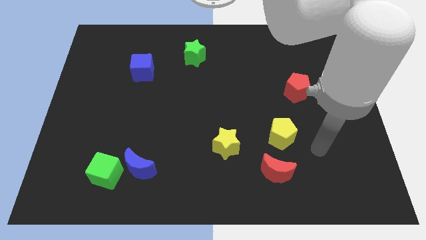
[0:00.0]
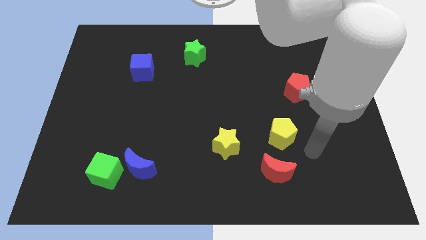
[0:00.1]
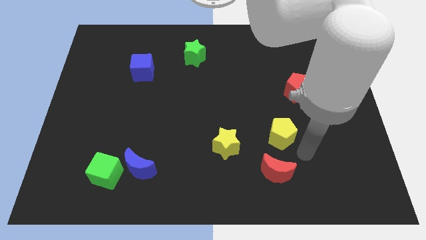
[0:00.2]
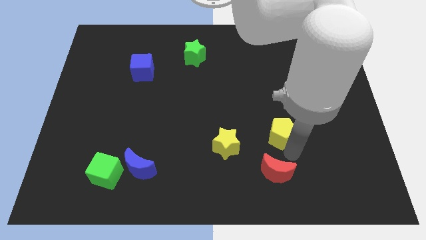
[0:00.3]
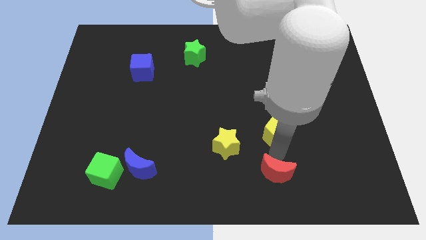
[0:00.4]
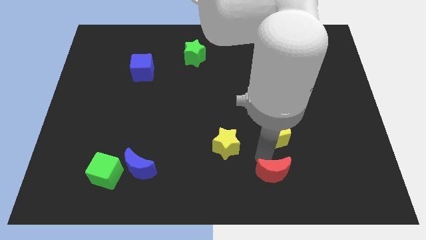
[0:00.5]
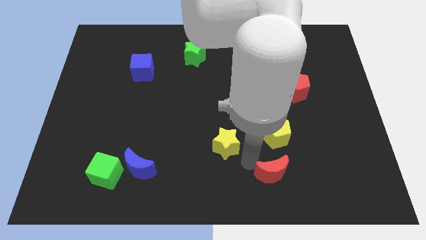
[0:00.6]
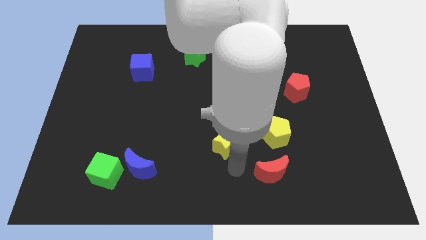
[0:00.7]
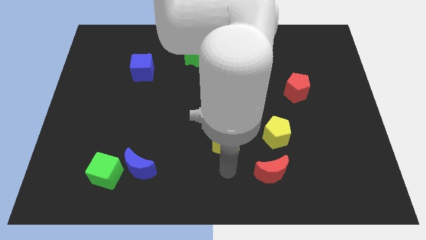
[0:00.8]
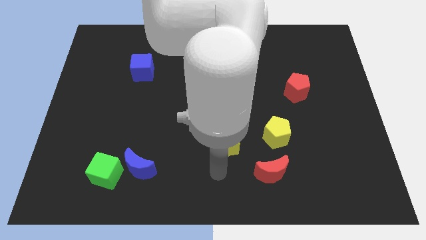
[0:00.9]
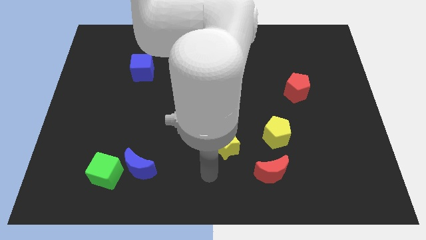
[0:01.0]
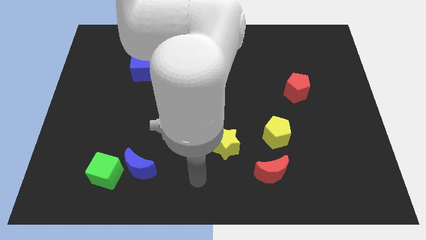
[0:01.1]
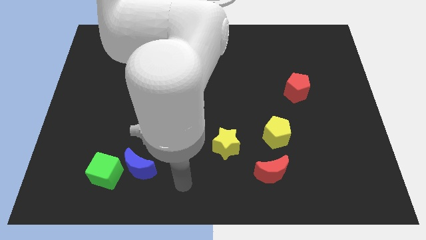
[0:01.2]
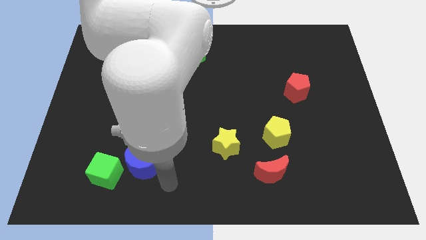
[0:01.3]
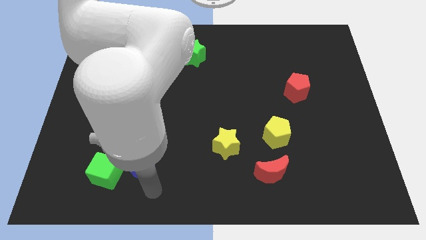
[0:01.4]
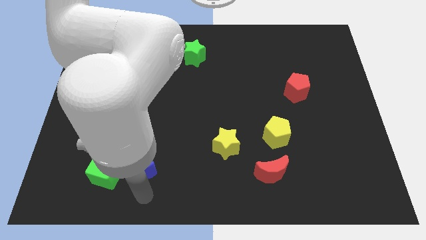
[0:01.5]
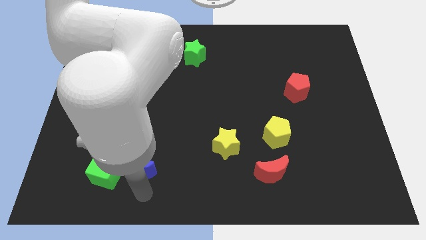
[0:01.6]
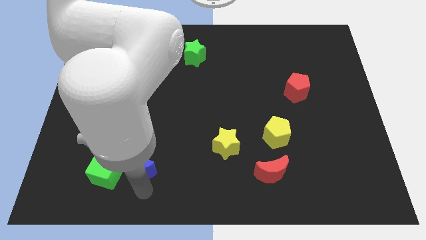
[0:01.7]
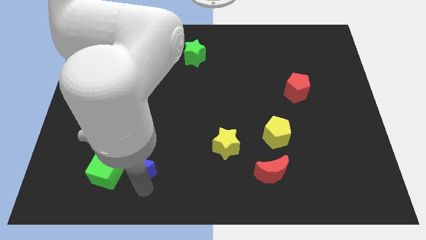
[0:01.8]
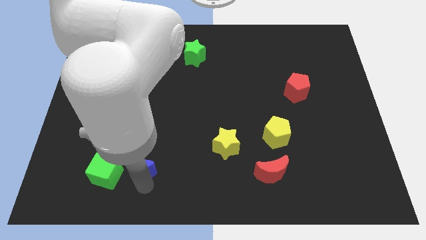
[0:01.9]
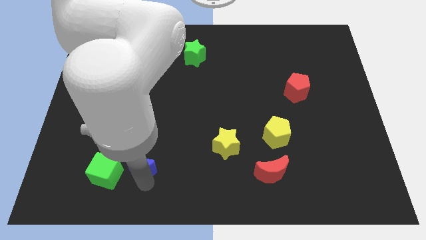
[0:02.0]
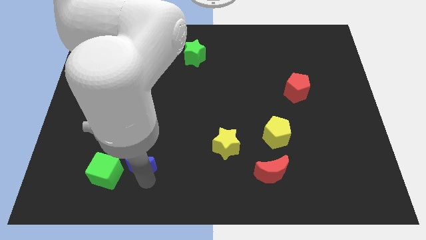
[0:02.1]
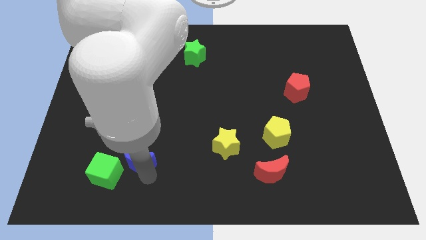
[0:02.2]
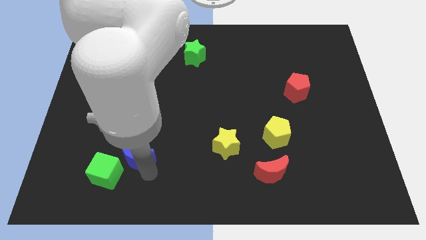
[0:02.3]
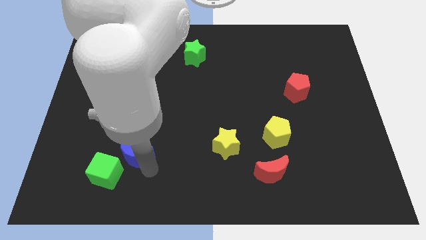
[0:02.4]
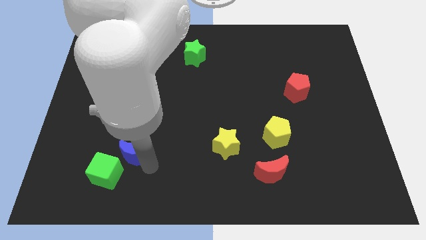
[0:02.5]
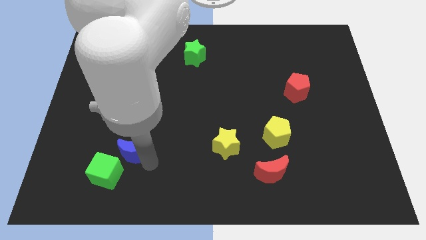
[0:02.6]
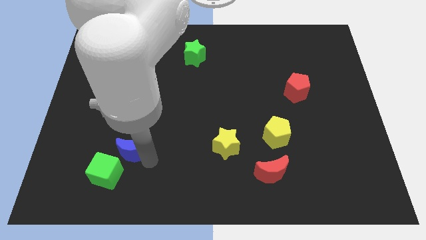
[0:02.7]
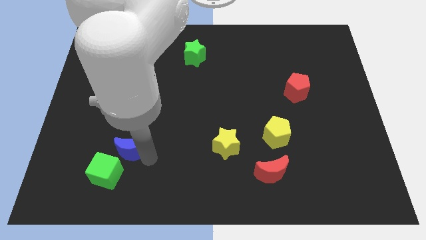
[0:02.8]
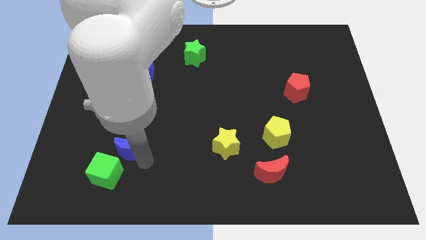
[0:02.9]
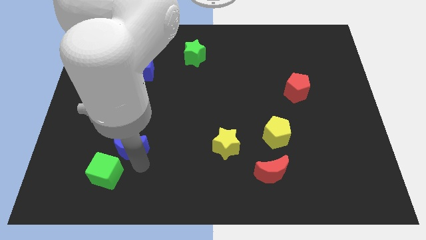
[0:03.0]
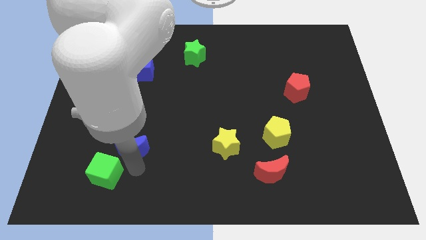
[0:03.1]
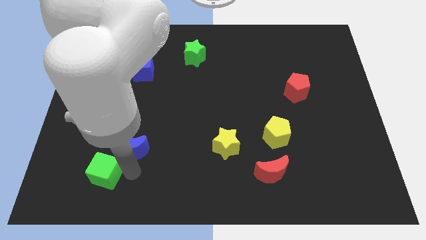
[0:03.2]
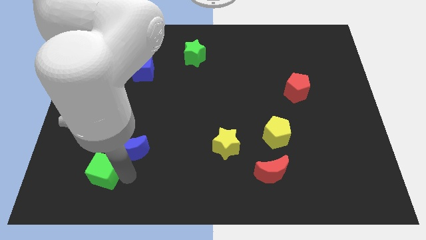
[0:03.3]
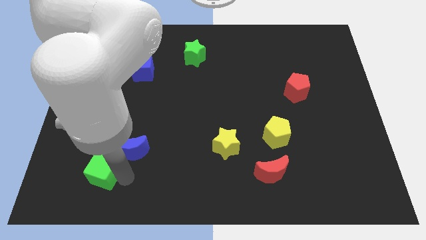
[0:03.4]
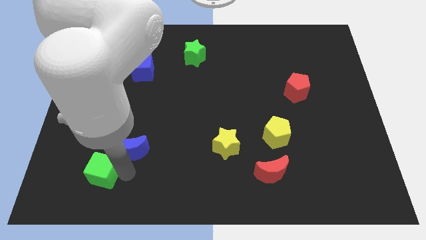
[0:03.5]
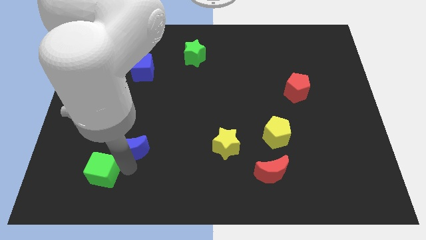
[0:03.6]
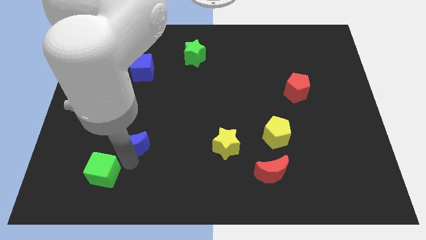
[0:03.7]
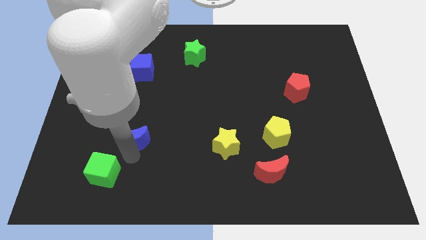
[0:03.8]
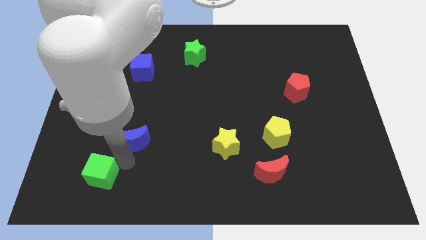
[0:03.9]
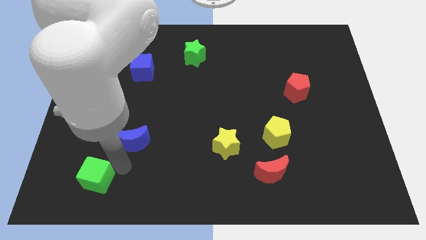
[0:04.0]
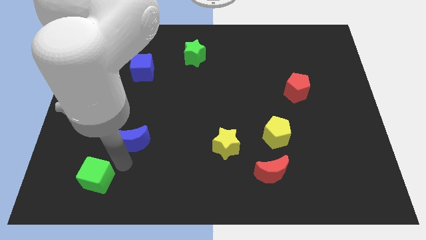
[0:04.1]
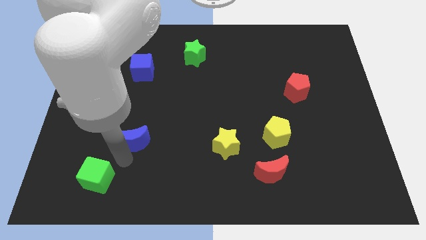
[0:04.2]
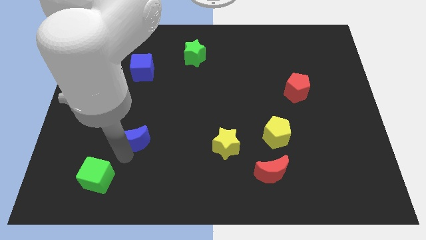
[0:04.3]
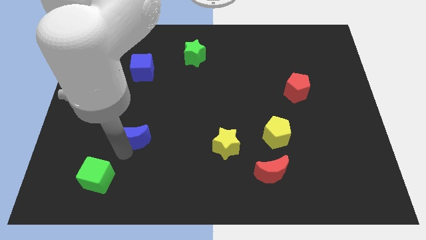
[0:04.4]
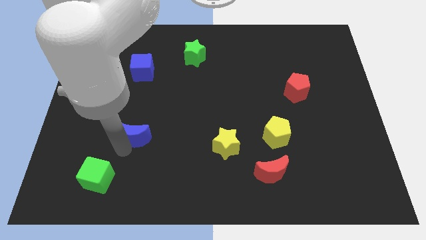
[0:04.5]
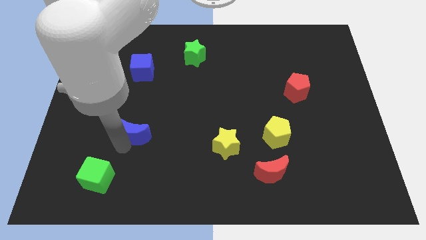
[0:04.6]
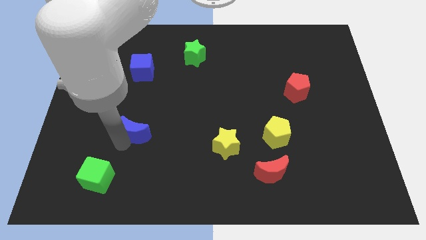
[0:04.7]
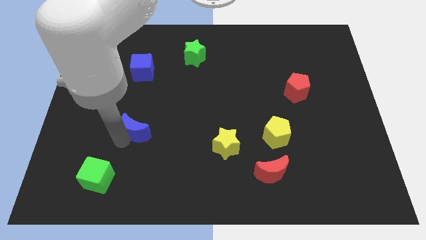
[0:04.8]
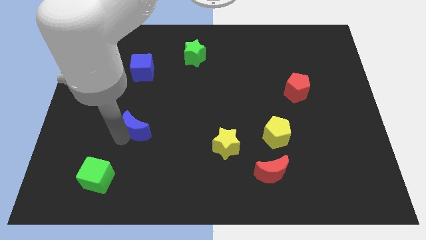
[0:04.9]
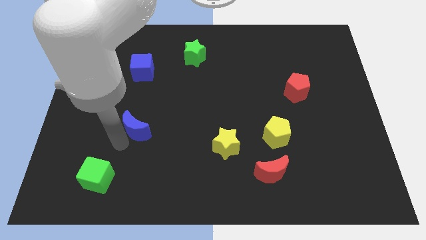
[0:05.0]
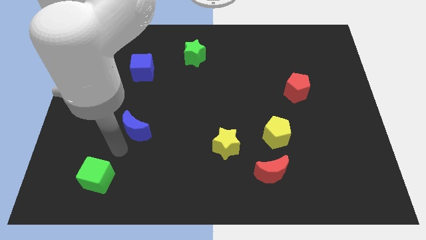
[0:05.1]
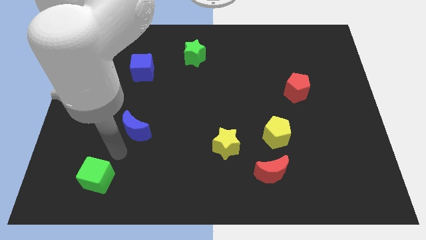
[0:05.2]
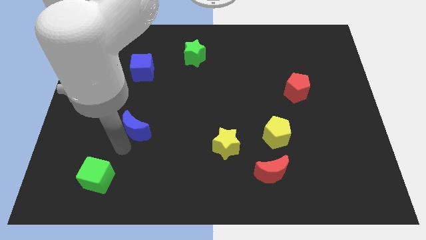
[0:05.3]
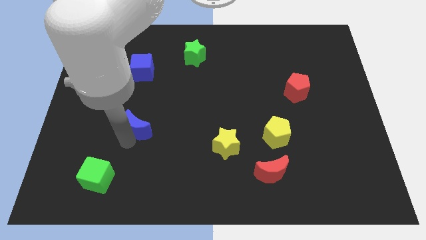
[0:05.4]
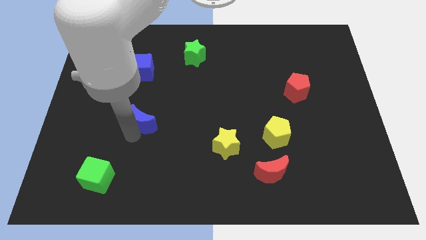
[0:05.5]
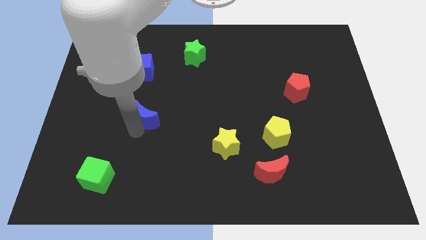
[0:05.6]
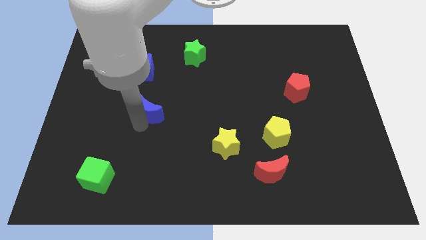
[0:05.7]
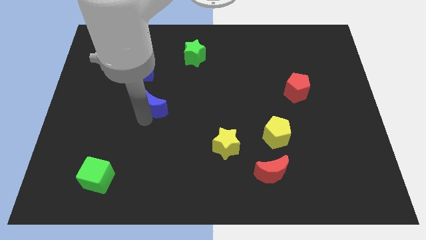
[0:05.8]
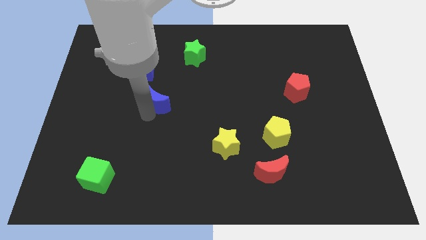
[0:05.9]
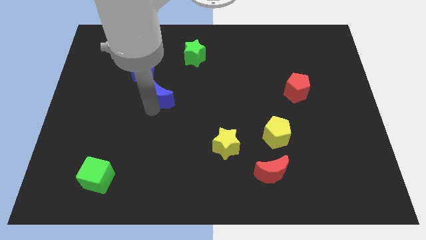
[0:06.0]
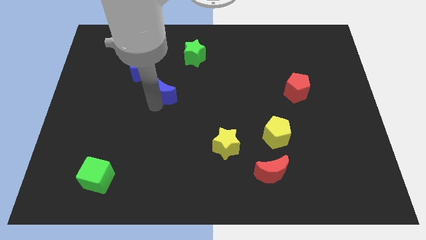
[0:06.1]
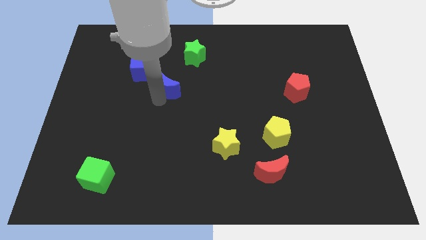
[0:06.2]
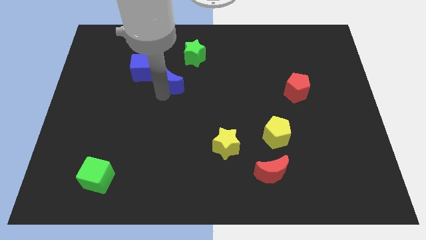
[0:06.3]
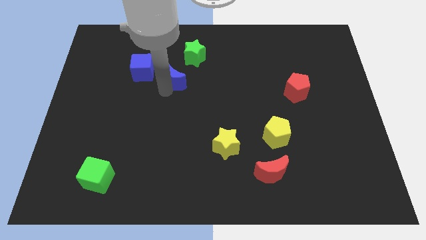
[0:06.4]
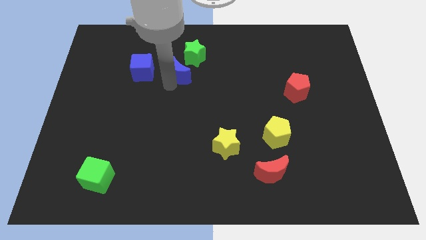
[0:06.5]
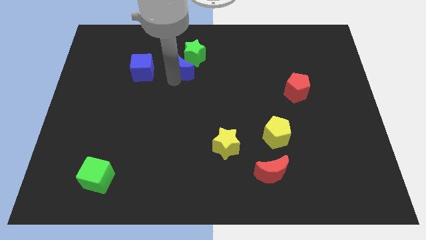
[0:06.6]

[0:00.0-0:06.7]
move the blue moon to the green star
